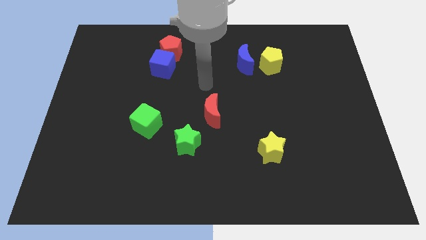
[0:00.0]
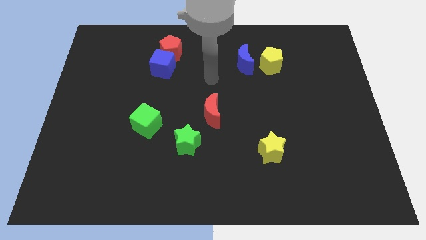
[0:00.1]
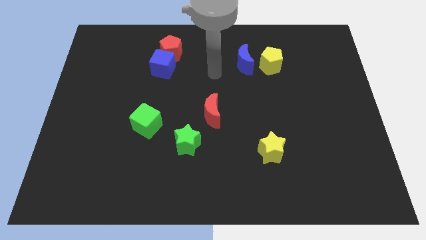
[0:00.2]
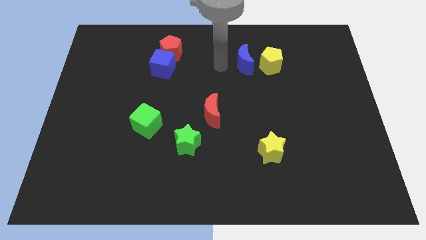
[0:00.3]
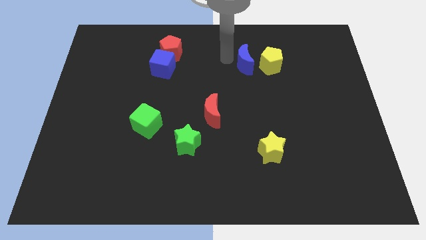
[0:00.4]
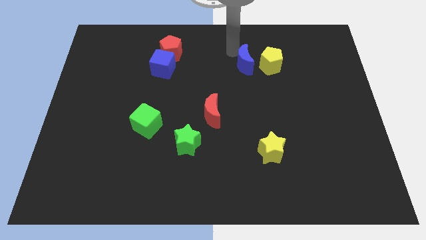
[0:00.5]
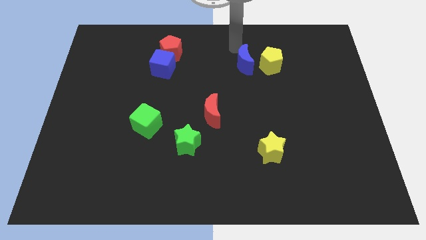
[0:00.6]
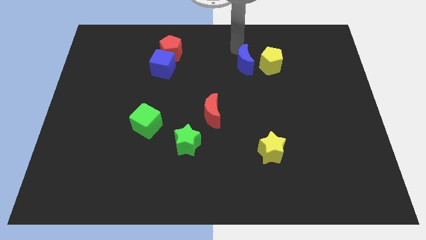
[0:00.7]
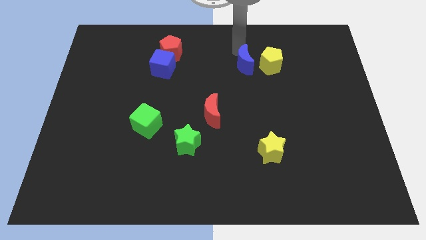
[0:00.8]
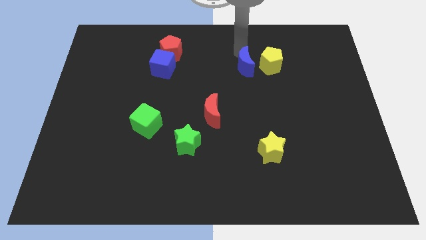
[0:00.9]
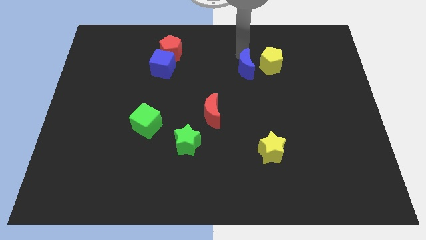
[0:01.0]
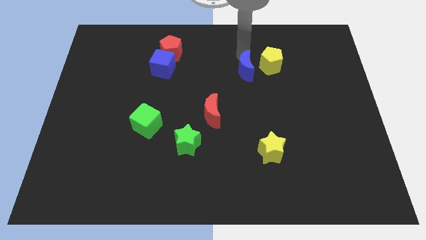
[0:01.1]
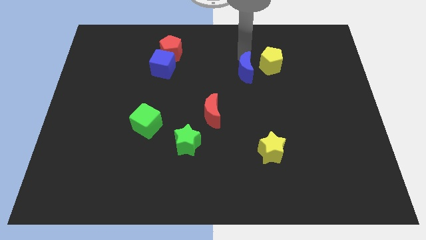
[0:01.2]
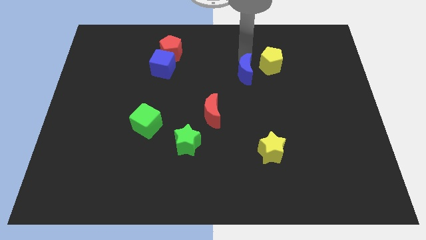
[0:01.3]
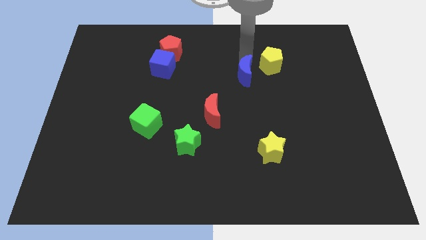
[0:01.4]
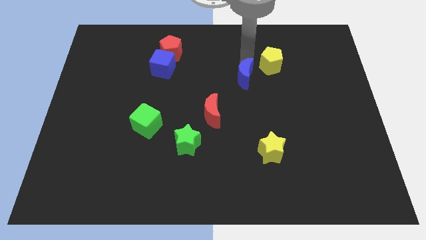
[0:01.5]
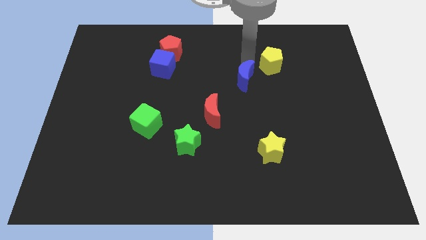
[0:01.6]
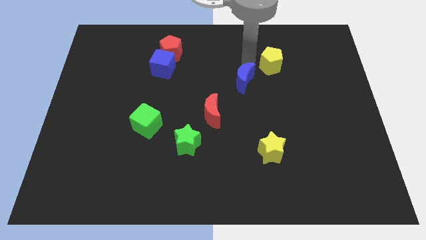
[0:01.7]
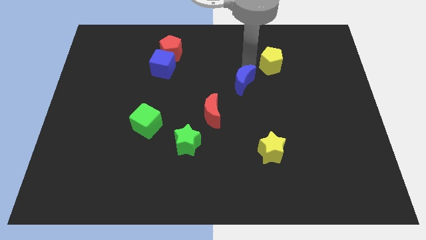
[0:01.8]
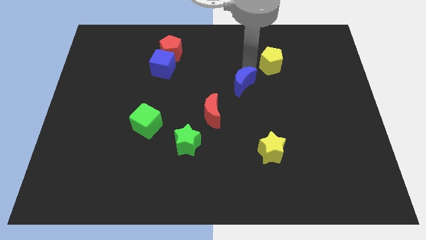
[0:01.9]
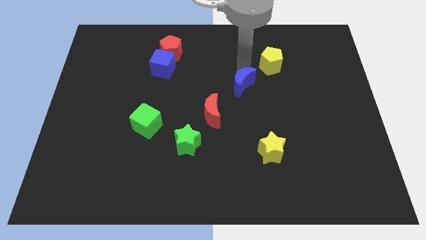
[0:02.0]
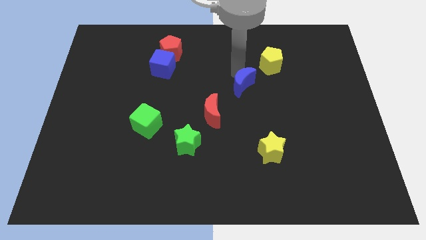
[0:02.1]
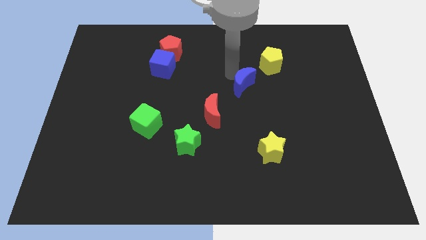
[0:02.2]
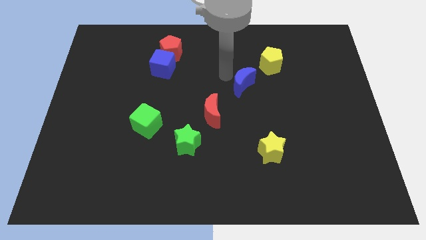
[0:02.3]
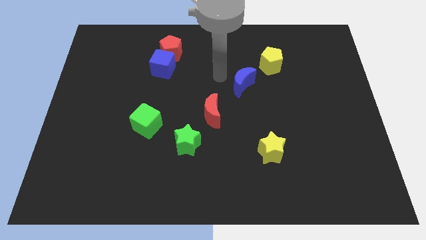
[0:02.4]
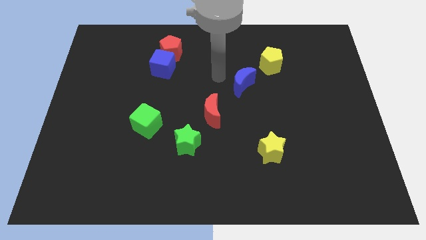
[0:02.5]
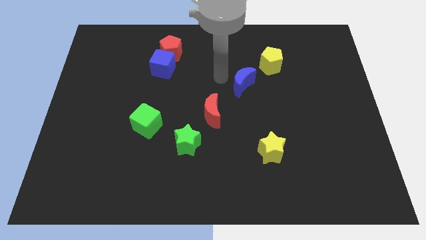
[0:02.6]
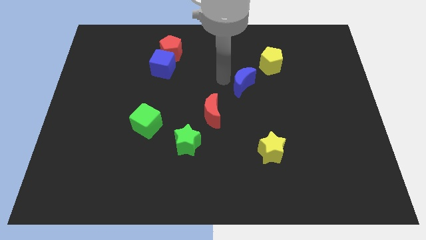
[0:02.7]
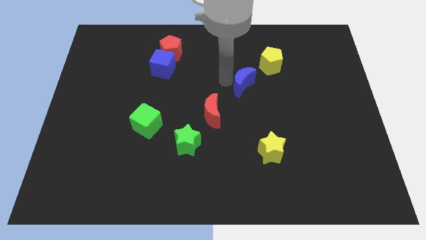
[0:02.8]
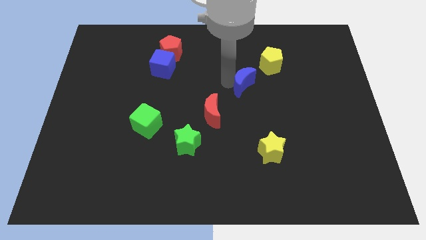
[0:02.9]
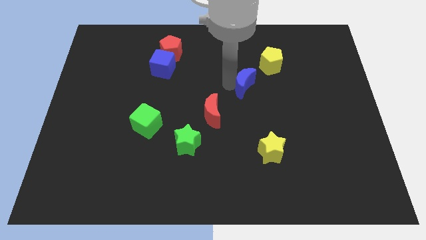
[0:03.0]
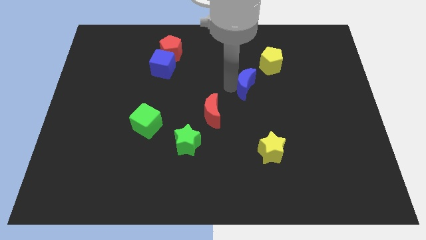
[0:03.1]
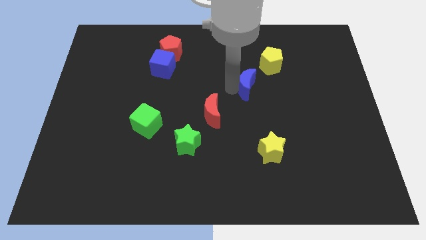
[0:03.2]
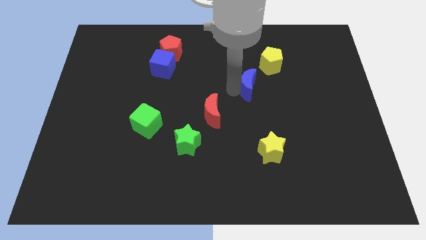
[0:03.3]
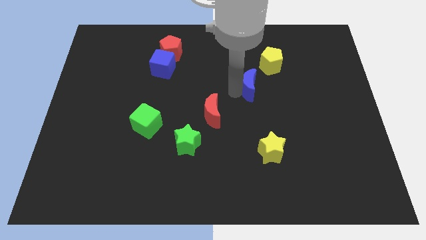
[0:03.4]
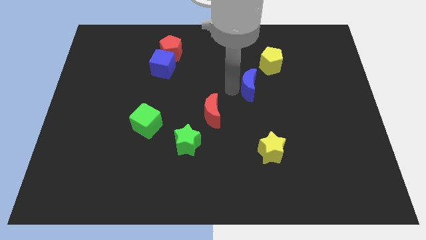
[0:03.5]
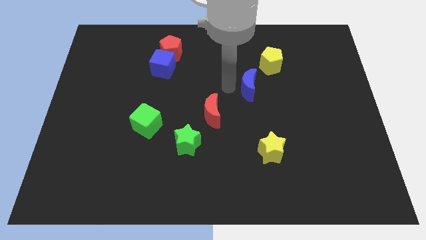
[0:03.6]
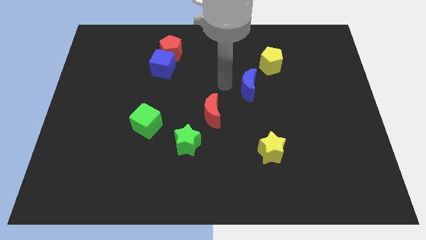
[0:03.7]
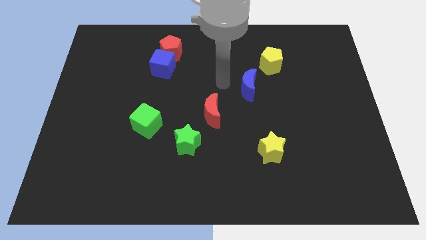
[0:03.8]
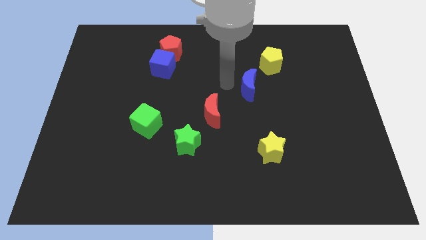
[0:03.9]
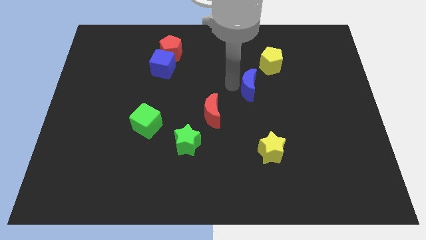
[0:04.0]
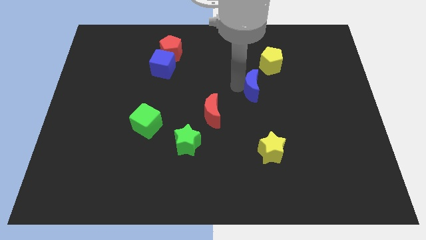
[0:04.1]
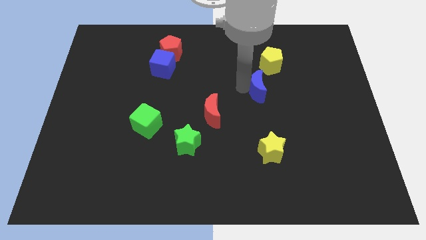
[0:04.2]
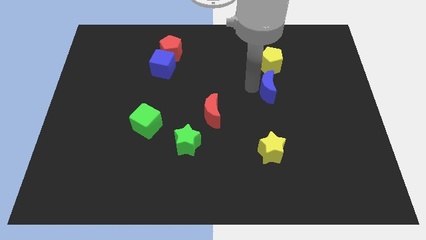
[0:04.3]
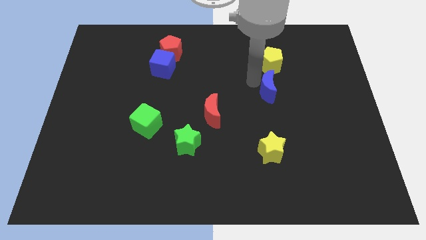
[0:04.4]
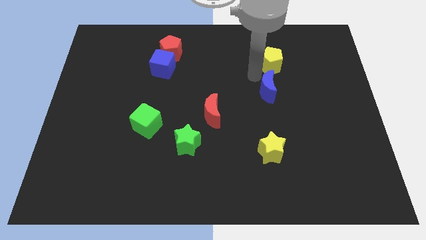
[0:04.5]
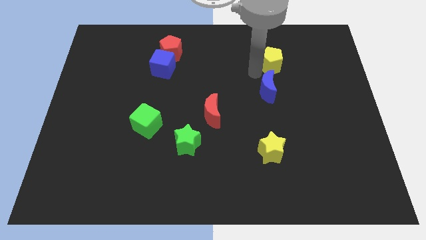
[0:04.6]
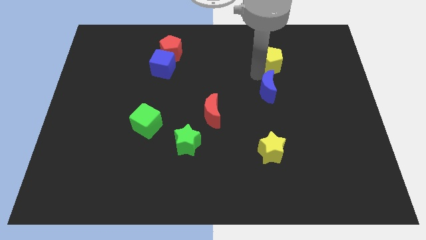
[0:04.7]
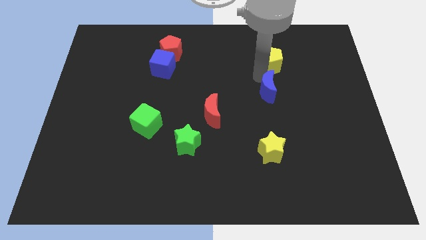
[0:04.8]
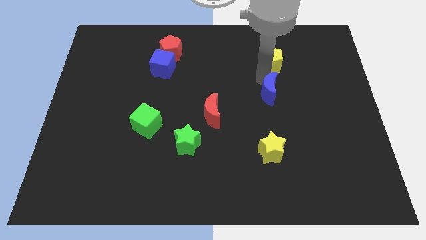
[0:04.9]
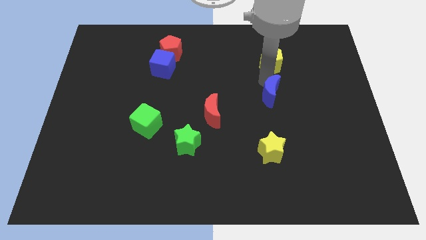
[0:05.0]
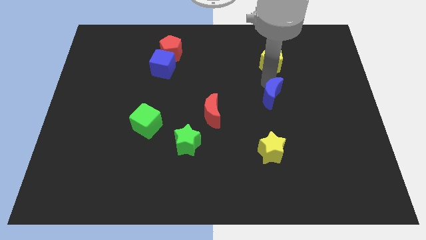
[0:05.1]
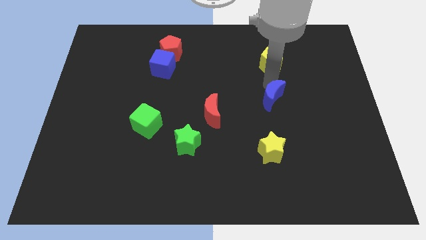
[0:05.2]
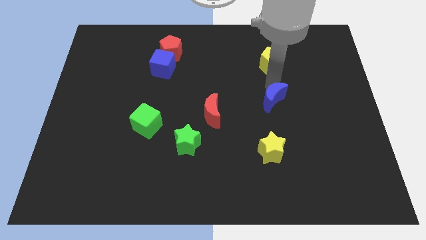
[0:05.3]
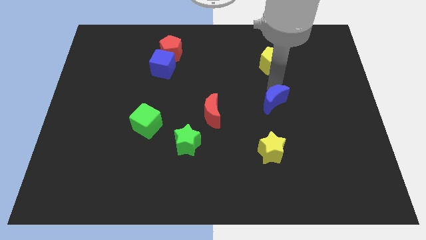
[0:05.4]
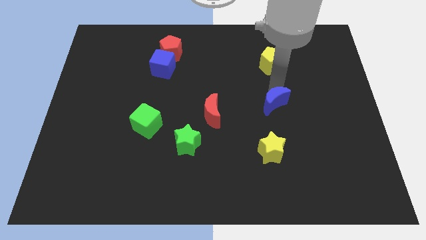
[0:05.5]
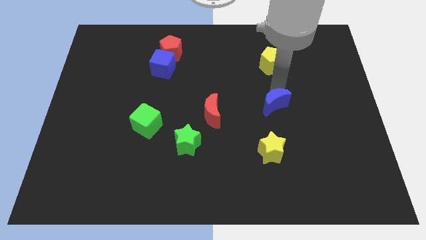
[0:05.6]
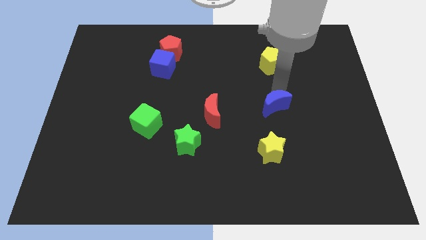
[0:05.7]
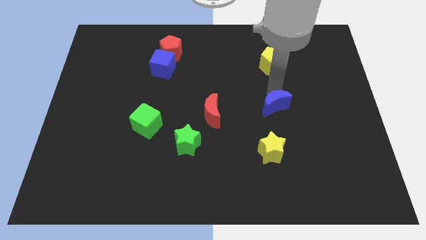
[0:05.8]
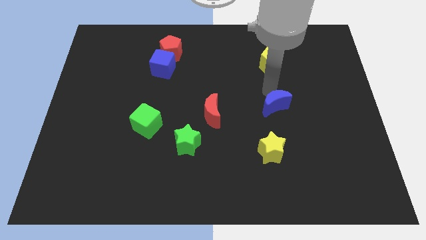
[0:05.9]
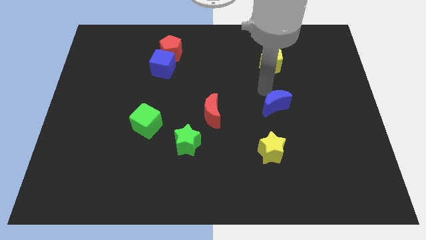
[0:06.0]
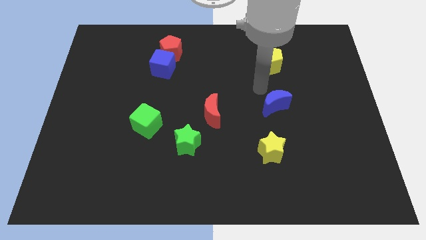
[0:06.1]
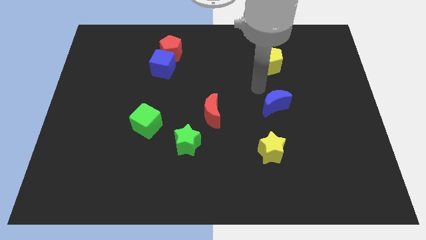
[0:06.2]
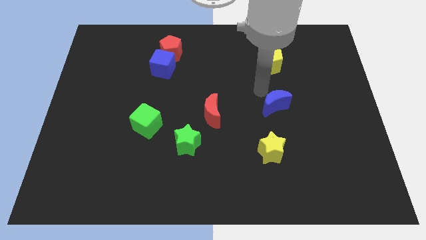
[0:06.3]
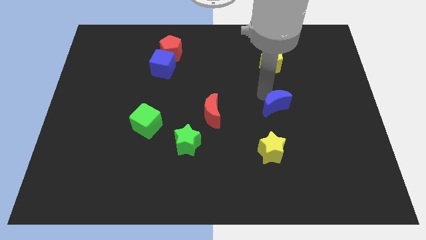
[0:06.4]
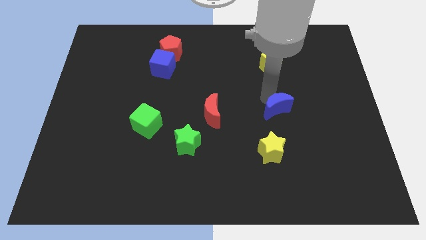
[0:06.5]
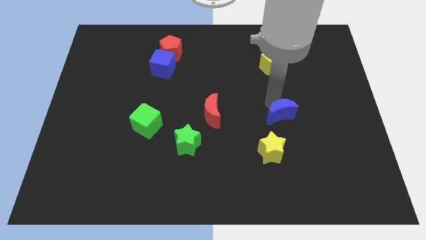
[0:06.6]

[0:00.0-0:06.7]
push the blue moon to the top right of the yellow star

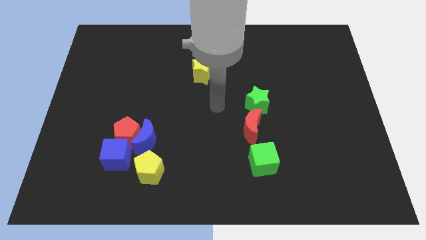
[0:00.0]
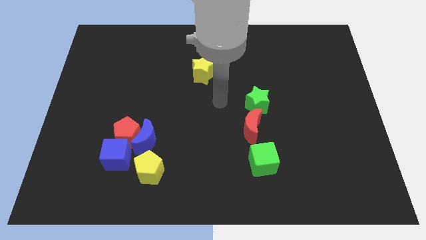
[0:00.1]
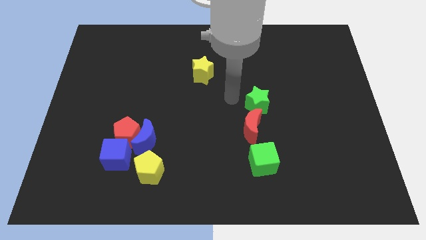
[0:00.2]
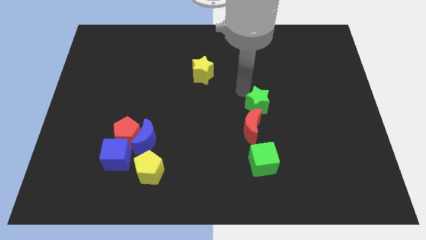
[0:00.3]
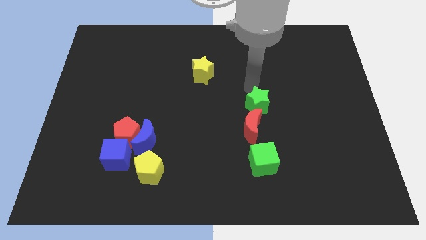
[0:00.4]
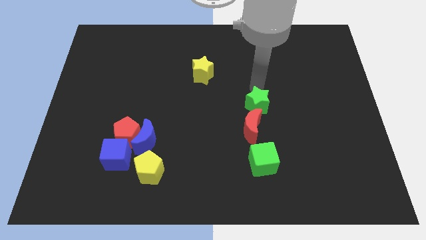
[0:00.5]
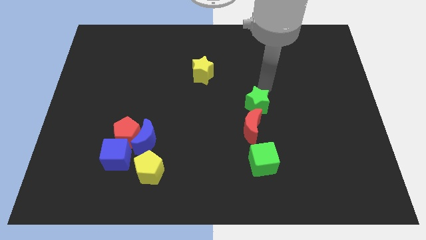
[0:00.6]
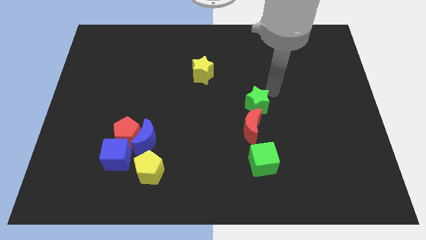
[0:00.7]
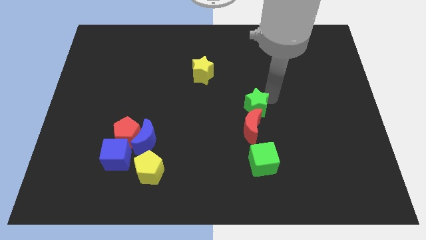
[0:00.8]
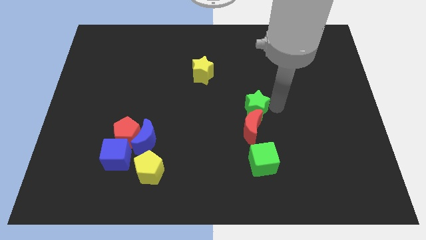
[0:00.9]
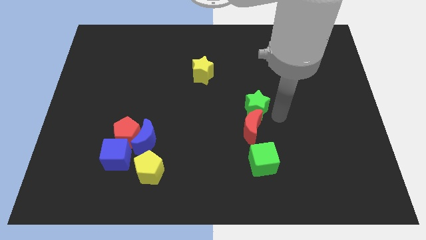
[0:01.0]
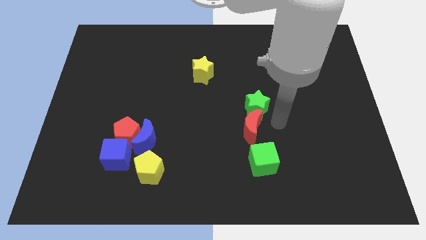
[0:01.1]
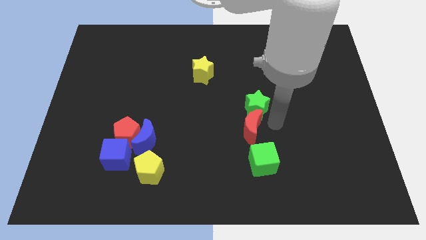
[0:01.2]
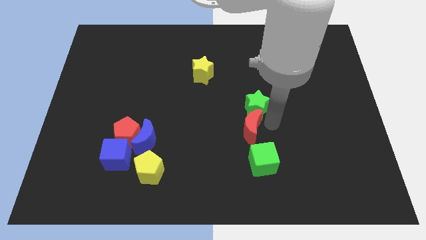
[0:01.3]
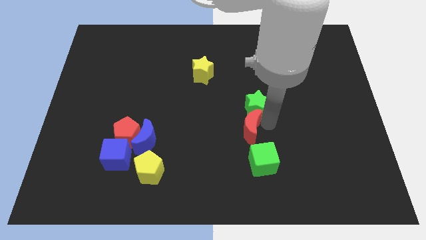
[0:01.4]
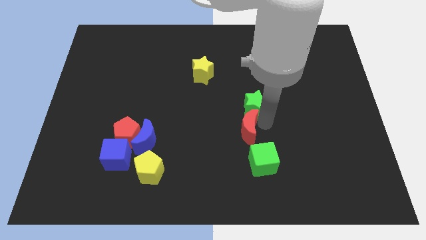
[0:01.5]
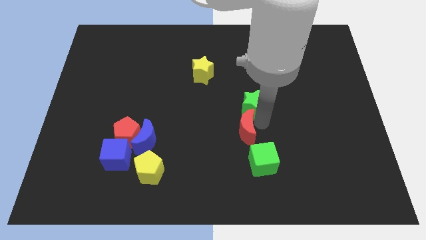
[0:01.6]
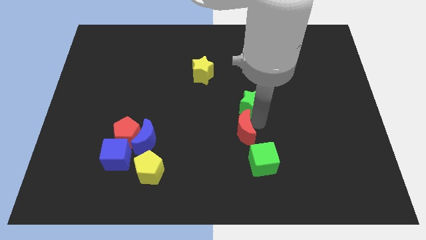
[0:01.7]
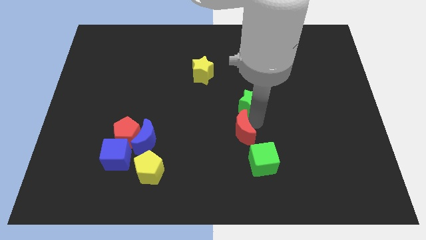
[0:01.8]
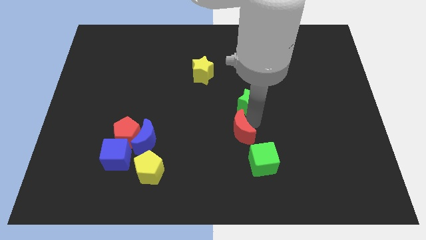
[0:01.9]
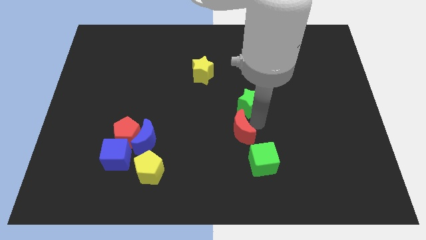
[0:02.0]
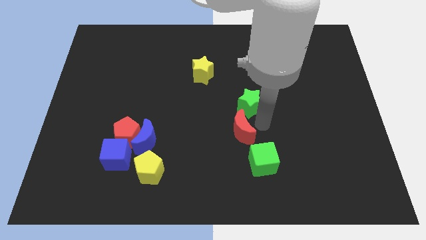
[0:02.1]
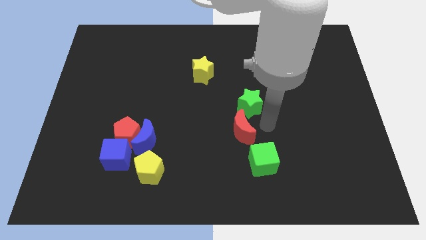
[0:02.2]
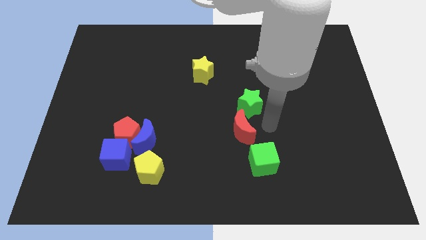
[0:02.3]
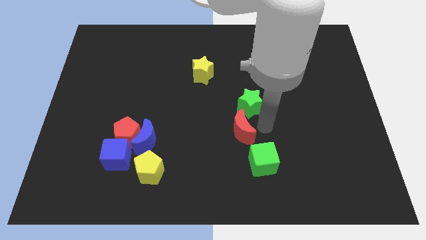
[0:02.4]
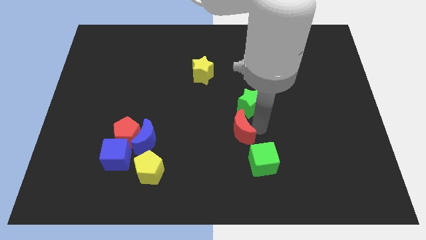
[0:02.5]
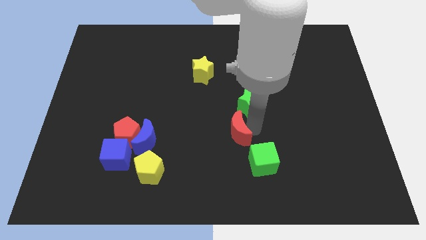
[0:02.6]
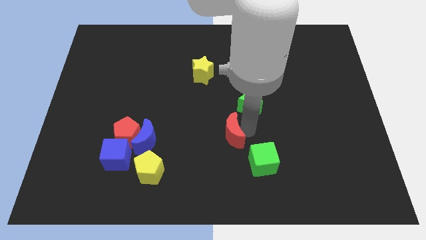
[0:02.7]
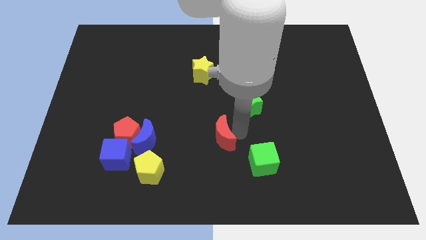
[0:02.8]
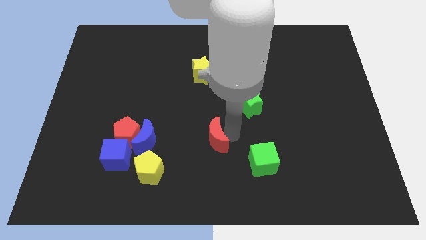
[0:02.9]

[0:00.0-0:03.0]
slide the red moon just right of the blue moon
